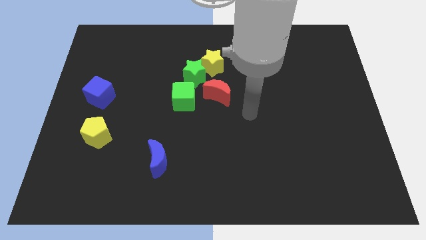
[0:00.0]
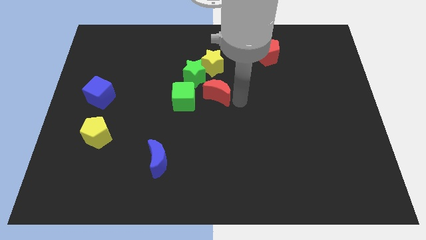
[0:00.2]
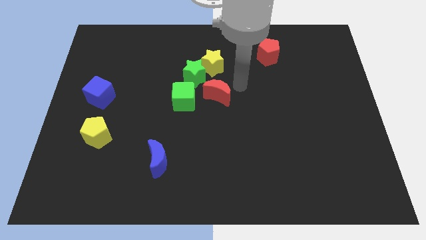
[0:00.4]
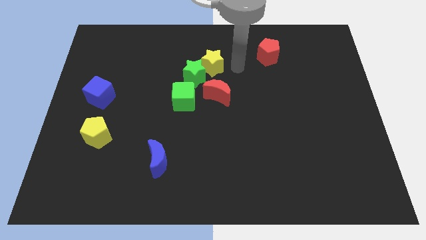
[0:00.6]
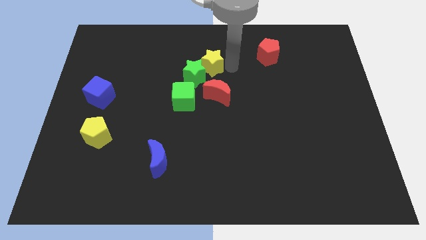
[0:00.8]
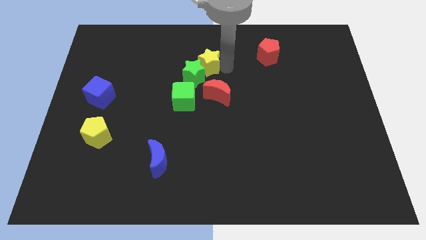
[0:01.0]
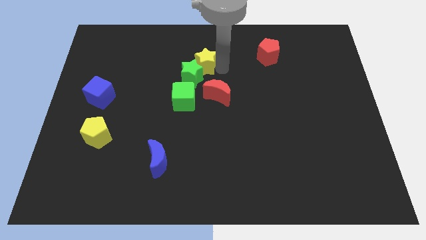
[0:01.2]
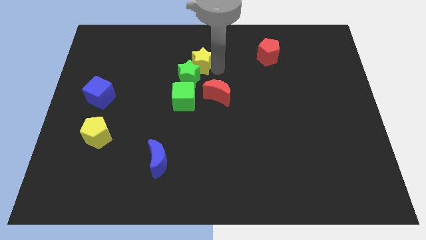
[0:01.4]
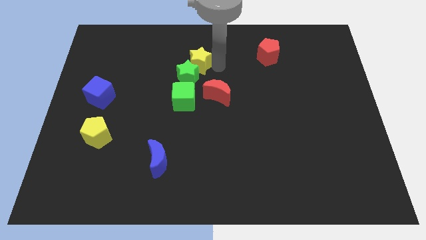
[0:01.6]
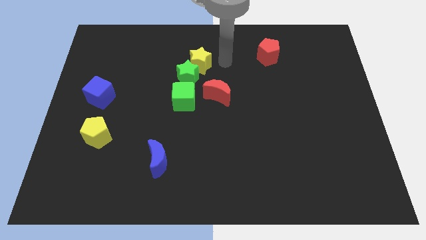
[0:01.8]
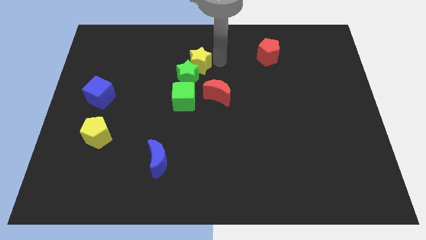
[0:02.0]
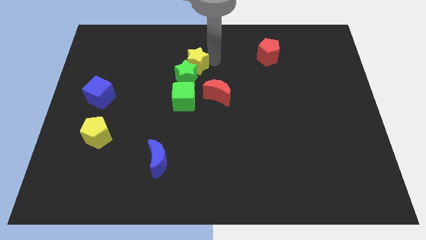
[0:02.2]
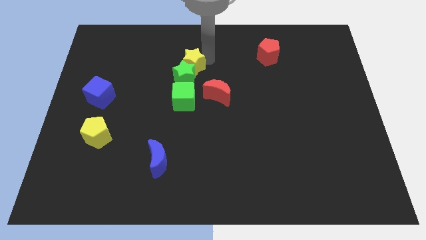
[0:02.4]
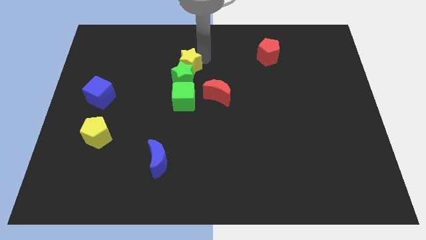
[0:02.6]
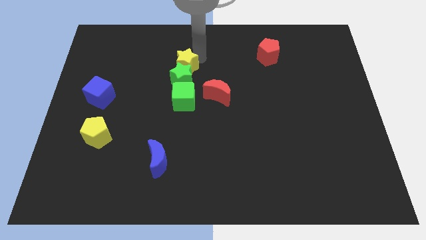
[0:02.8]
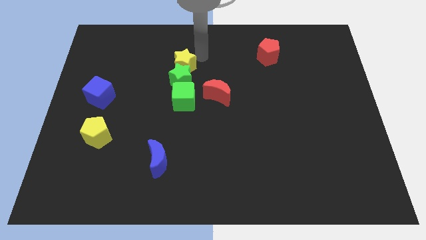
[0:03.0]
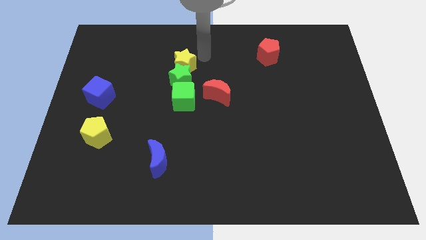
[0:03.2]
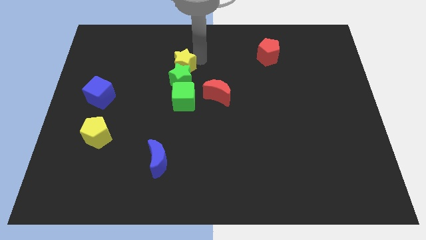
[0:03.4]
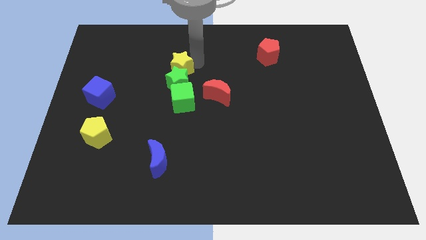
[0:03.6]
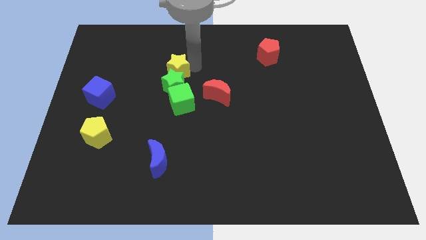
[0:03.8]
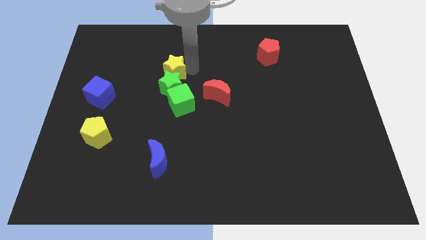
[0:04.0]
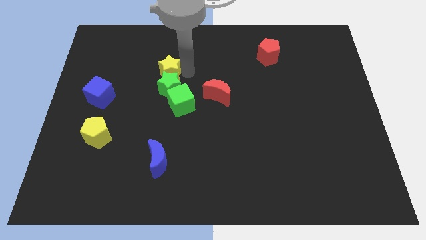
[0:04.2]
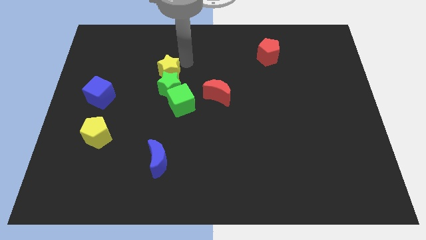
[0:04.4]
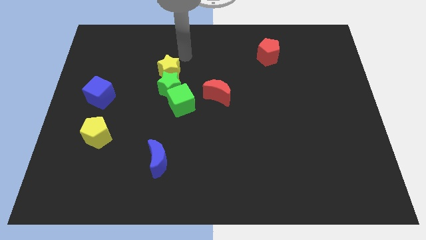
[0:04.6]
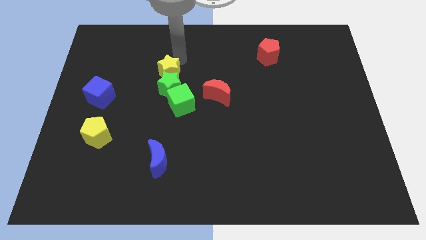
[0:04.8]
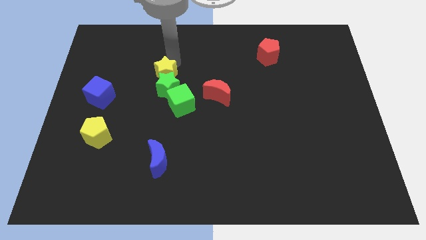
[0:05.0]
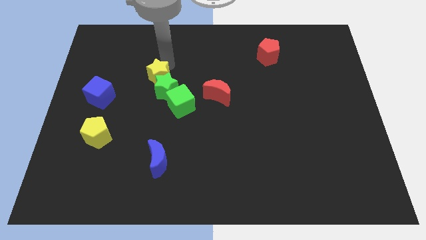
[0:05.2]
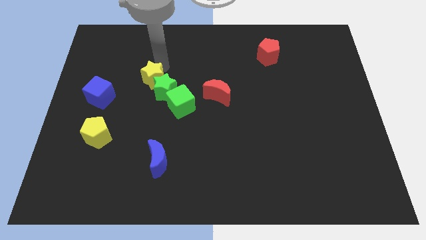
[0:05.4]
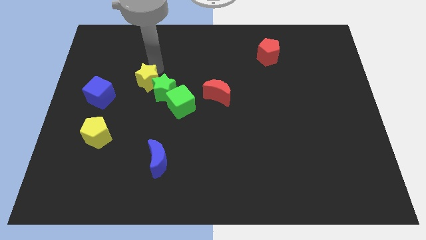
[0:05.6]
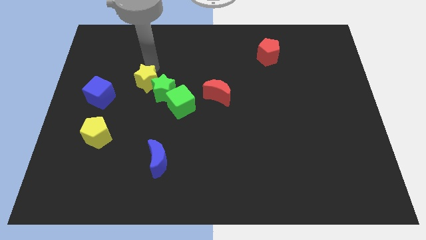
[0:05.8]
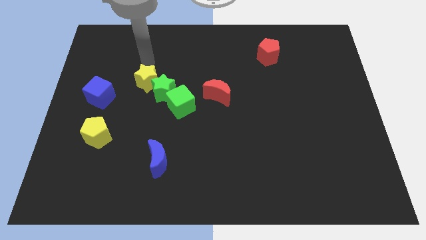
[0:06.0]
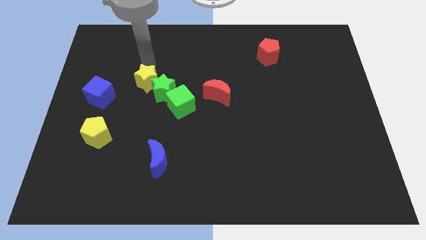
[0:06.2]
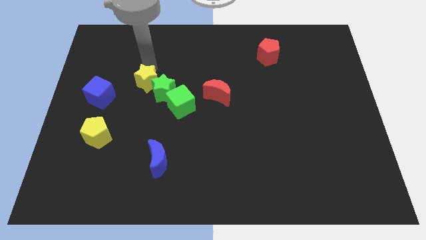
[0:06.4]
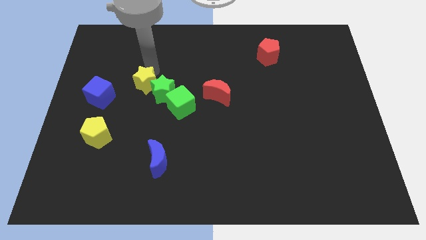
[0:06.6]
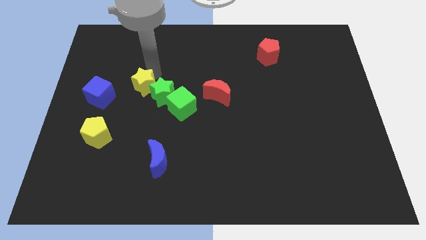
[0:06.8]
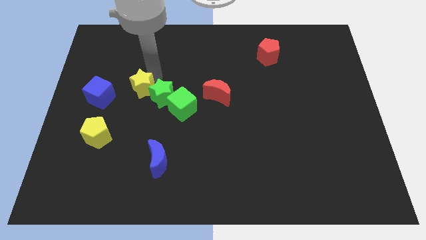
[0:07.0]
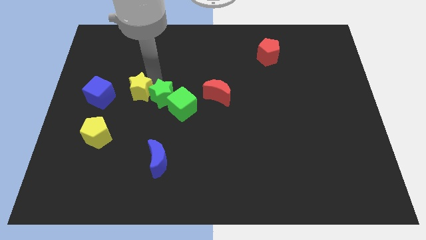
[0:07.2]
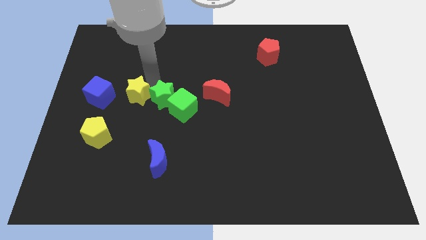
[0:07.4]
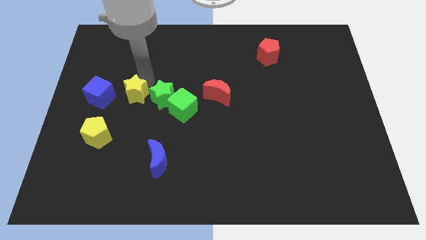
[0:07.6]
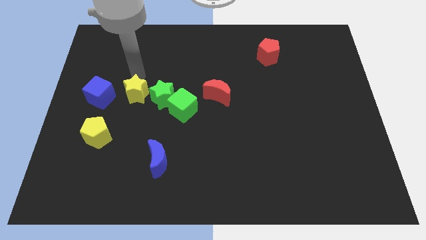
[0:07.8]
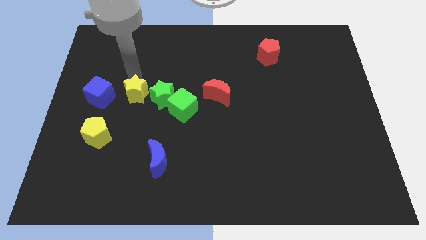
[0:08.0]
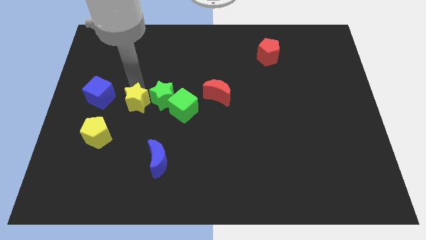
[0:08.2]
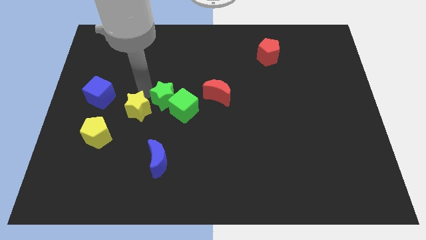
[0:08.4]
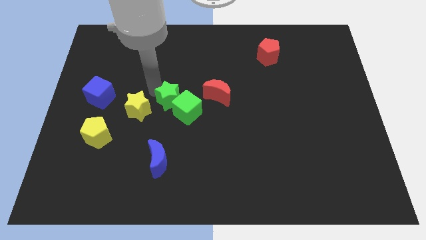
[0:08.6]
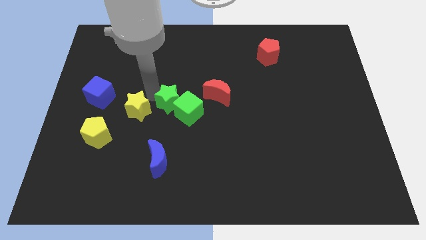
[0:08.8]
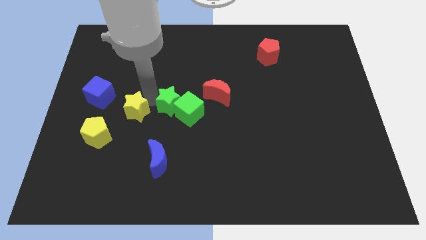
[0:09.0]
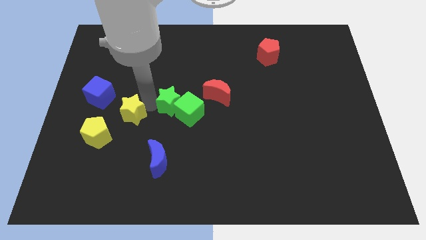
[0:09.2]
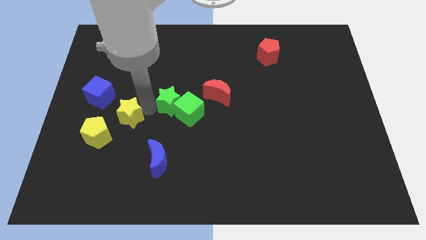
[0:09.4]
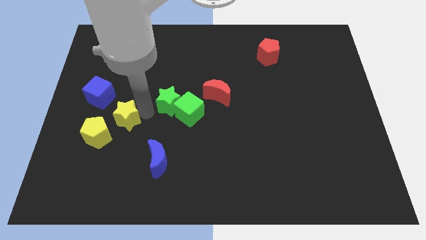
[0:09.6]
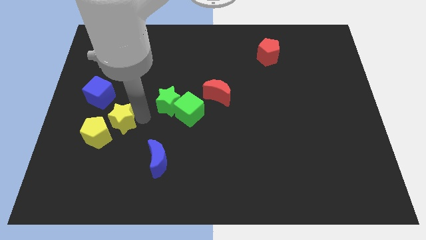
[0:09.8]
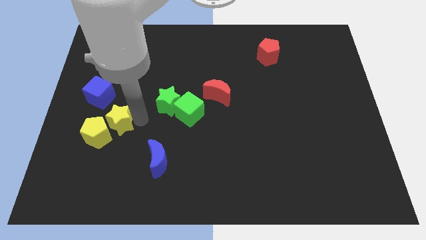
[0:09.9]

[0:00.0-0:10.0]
move the yellow star towards the yellow pentagon

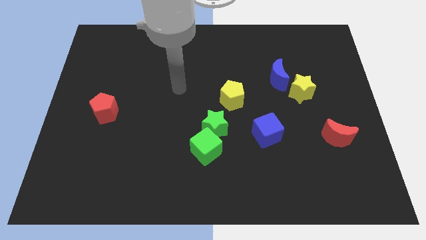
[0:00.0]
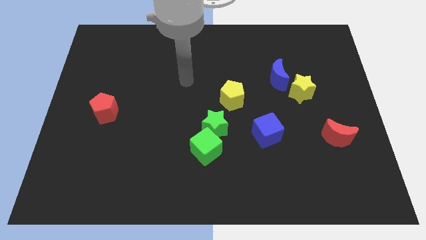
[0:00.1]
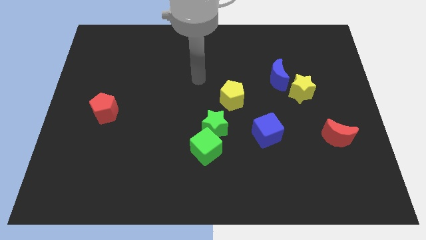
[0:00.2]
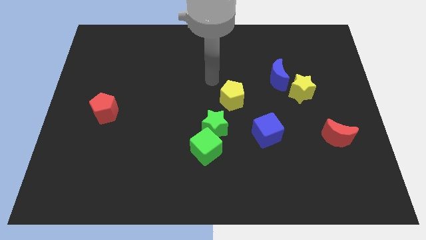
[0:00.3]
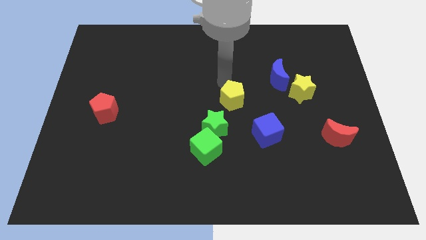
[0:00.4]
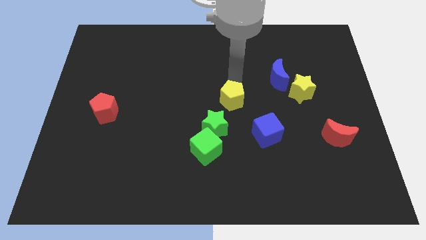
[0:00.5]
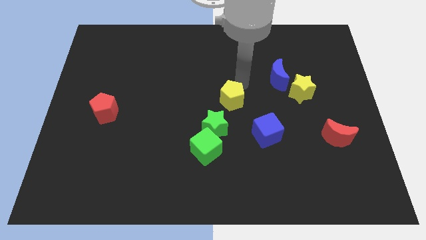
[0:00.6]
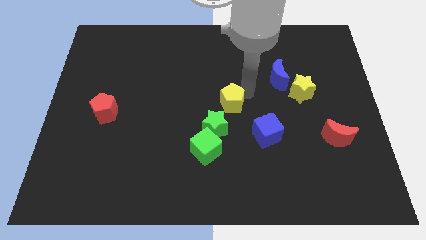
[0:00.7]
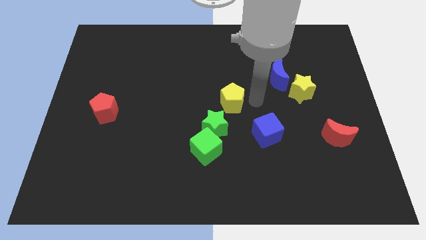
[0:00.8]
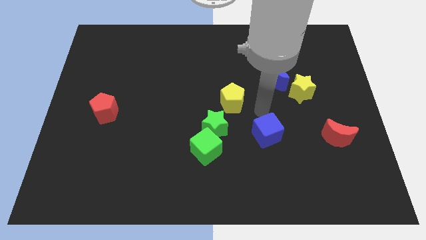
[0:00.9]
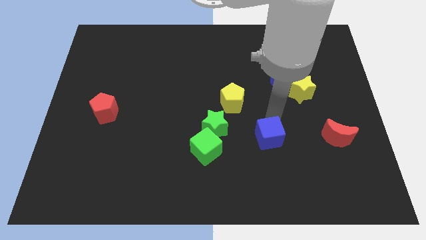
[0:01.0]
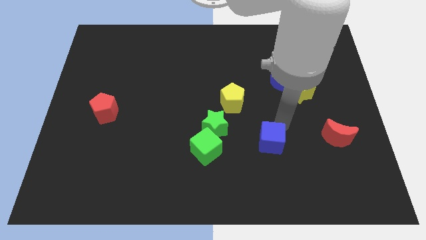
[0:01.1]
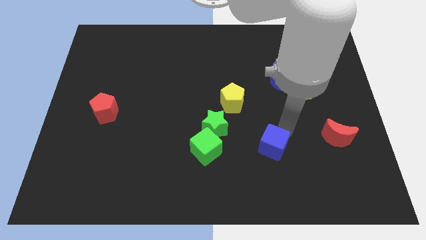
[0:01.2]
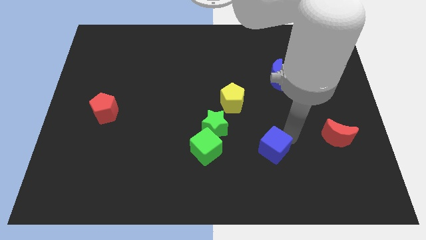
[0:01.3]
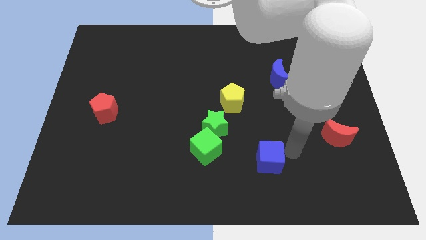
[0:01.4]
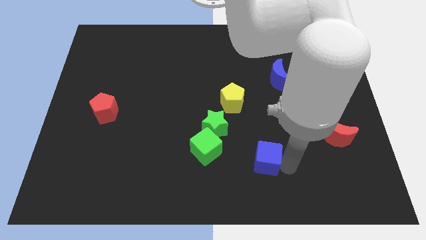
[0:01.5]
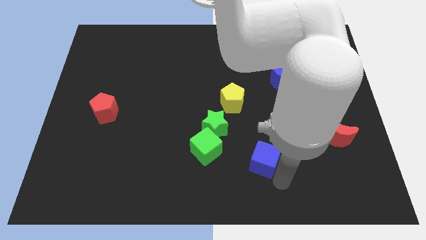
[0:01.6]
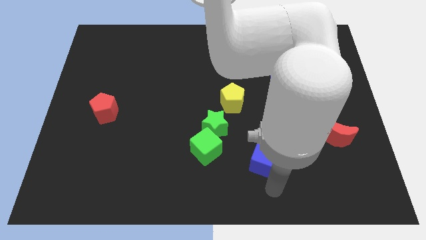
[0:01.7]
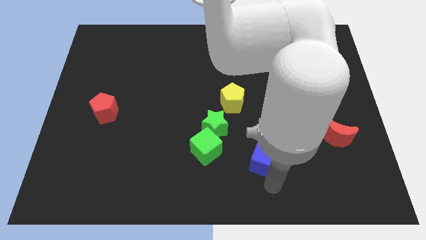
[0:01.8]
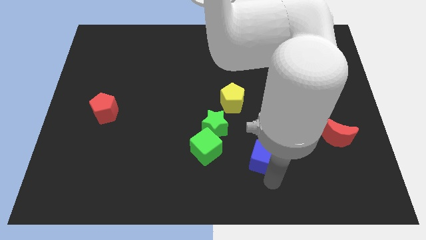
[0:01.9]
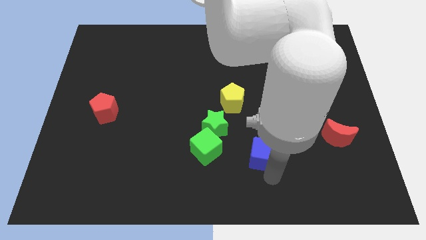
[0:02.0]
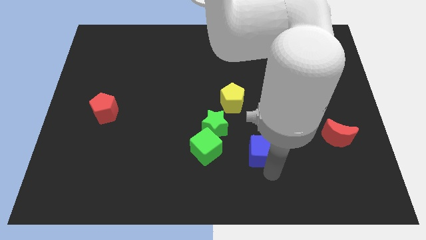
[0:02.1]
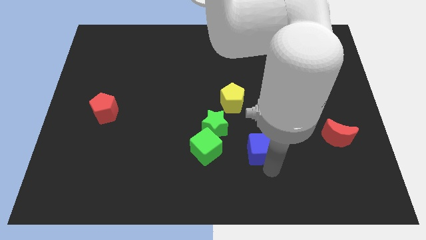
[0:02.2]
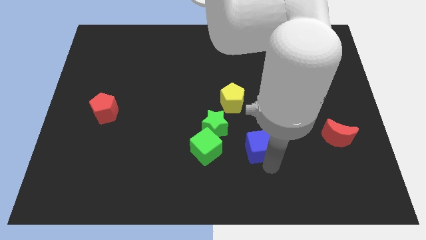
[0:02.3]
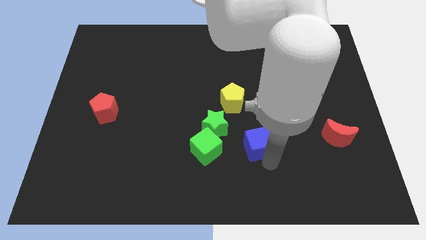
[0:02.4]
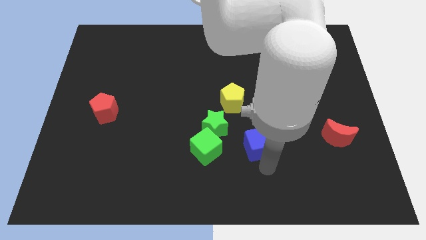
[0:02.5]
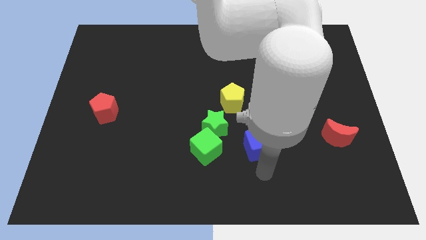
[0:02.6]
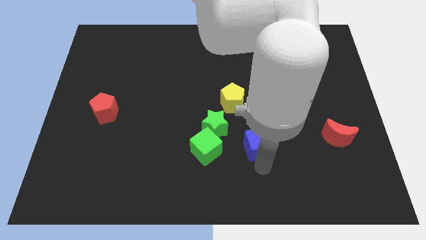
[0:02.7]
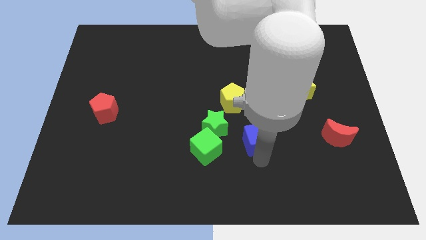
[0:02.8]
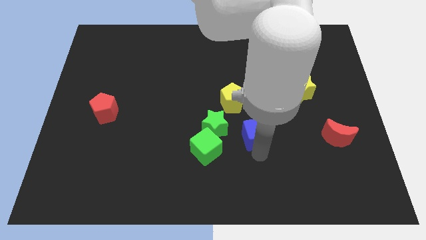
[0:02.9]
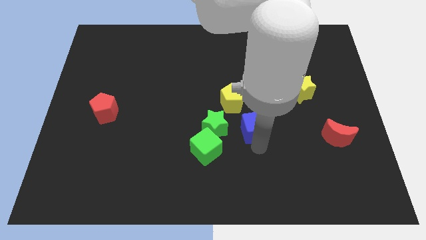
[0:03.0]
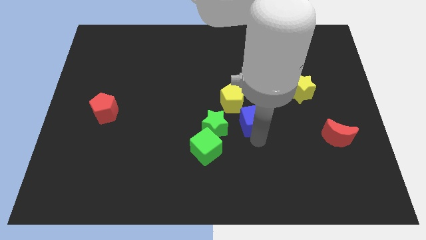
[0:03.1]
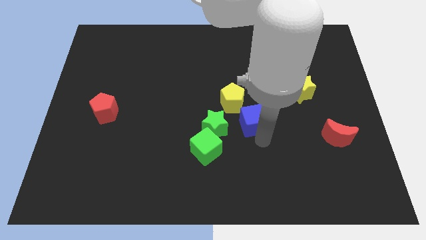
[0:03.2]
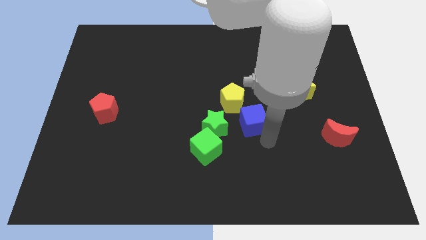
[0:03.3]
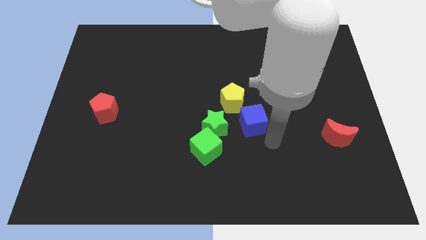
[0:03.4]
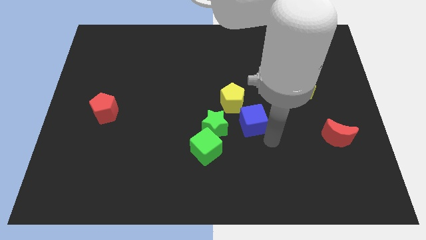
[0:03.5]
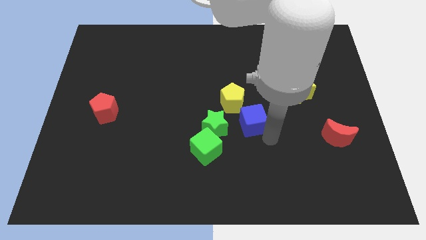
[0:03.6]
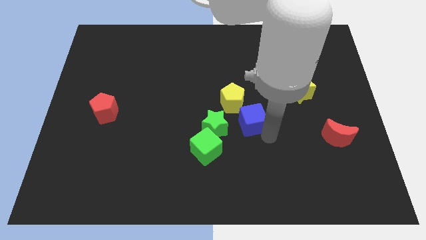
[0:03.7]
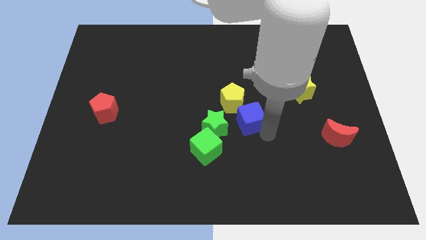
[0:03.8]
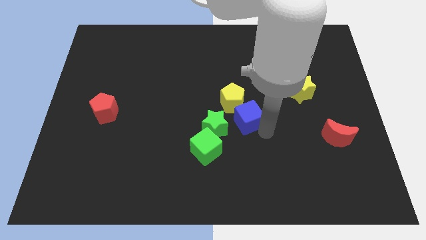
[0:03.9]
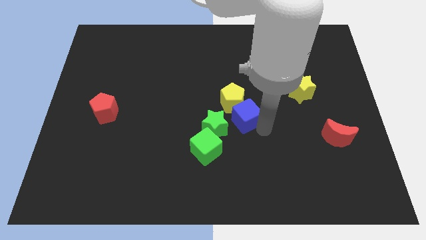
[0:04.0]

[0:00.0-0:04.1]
push the blue cube to the yellow pentagon
